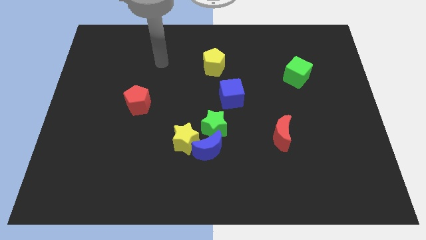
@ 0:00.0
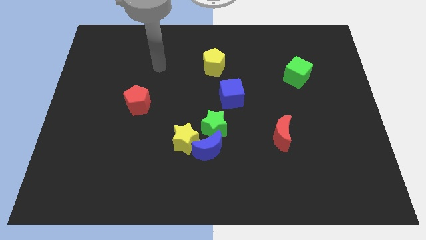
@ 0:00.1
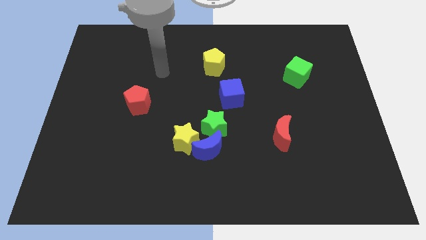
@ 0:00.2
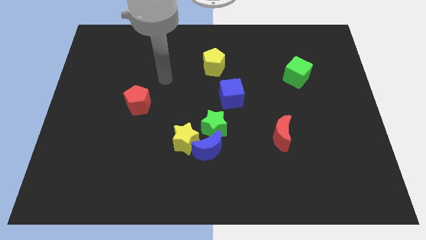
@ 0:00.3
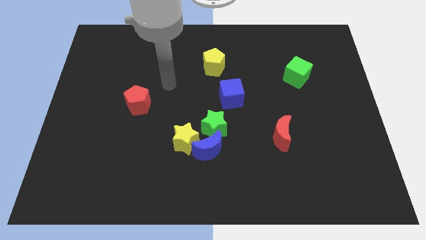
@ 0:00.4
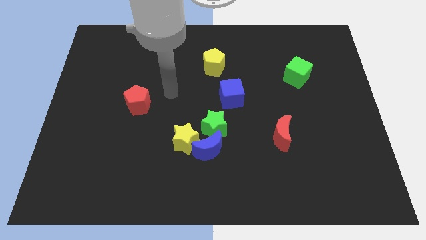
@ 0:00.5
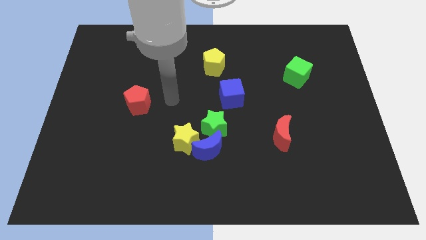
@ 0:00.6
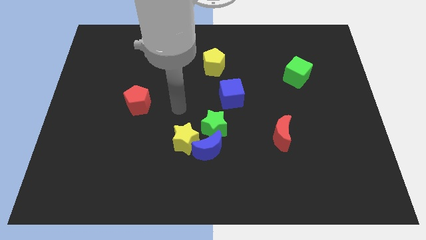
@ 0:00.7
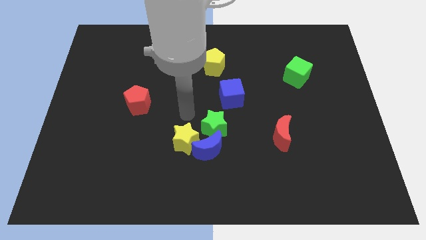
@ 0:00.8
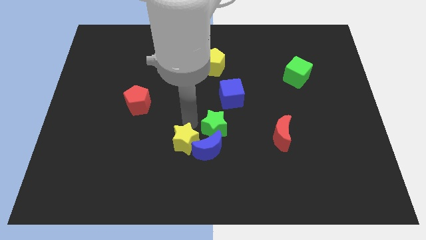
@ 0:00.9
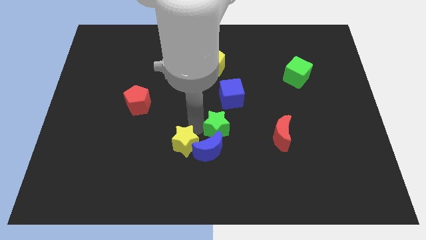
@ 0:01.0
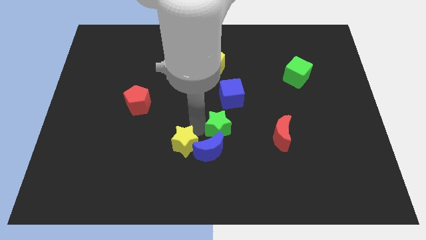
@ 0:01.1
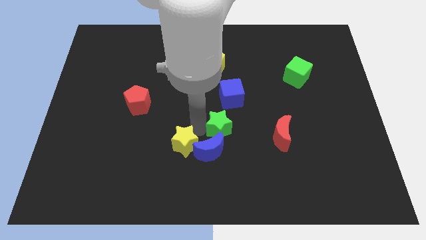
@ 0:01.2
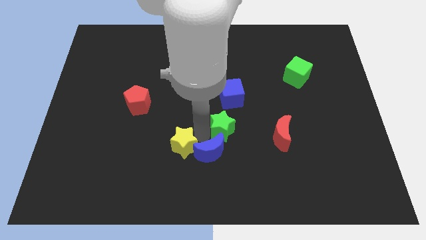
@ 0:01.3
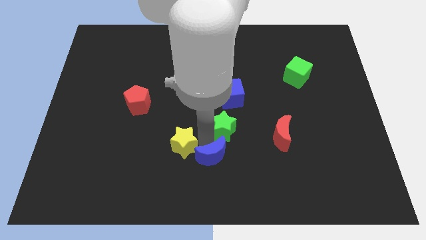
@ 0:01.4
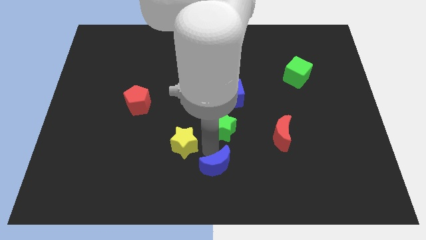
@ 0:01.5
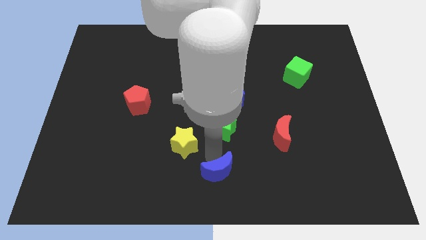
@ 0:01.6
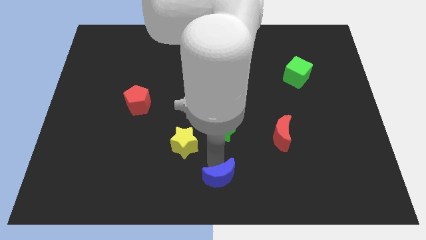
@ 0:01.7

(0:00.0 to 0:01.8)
move the blue moon away from the yellow star and green star

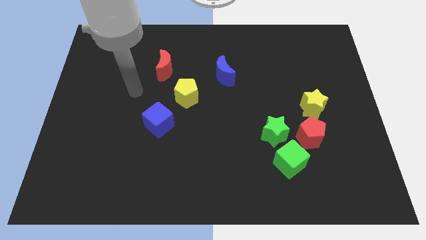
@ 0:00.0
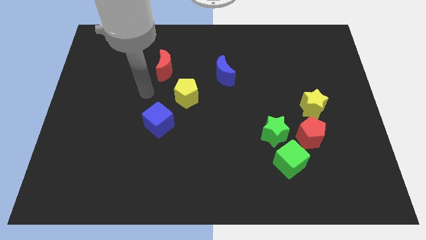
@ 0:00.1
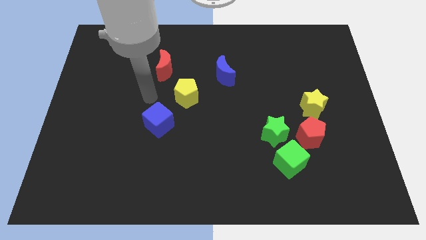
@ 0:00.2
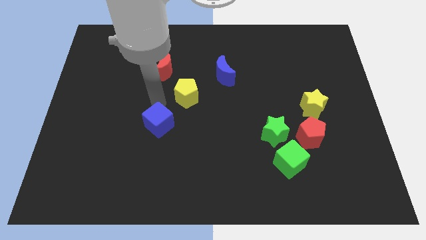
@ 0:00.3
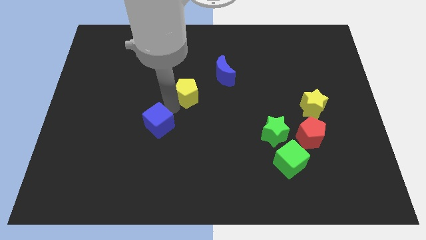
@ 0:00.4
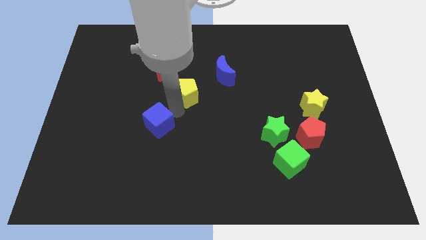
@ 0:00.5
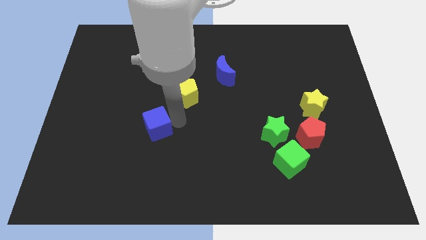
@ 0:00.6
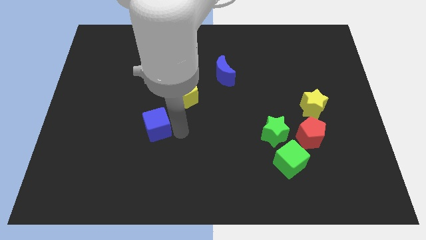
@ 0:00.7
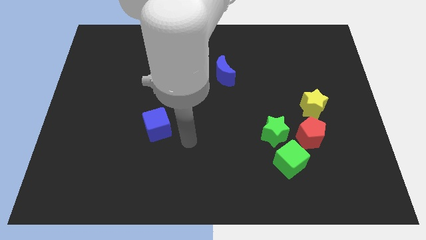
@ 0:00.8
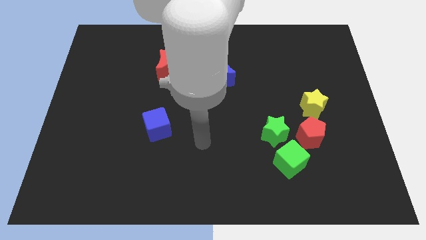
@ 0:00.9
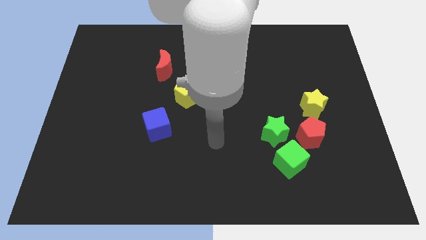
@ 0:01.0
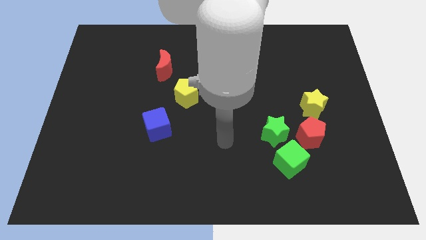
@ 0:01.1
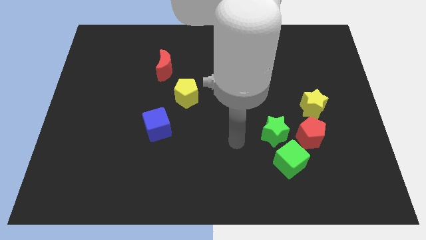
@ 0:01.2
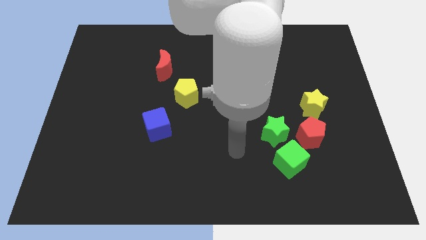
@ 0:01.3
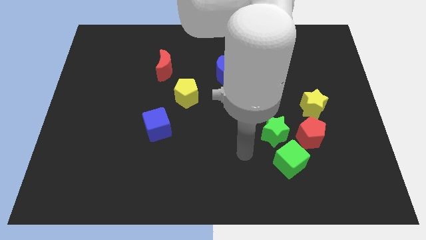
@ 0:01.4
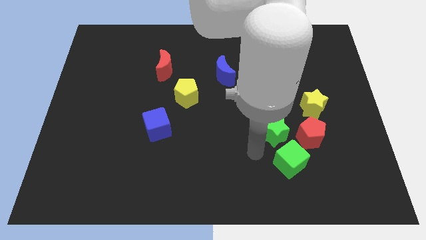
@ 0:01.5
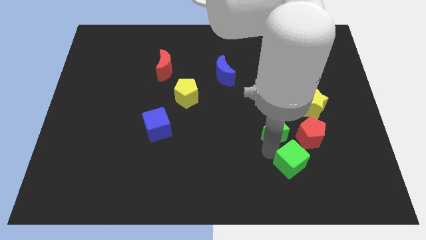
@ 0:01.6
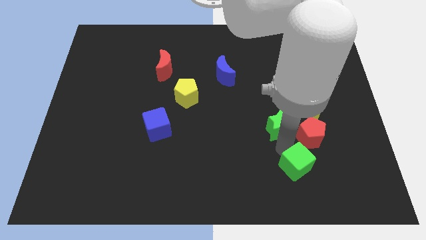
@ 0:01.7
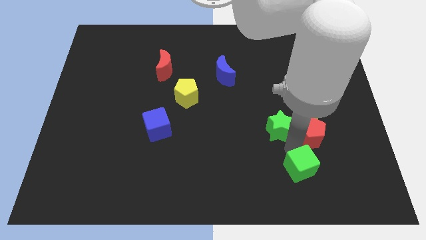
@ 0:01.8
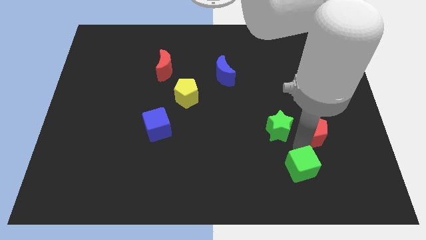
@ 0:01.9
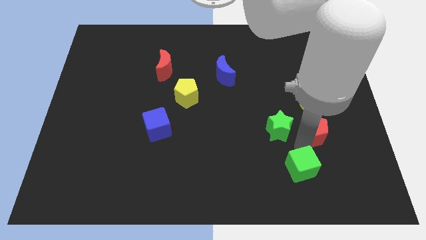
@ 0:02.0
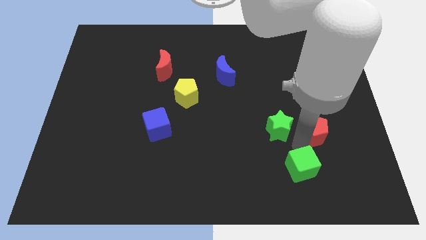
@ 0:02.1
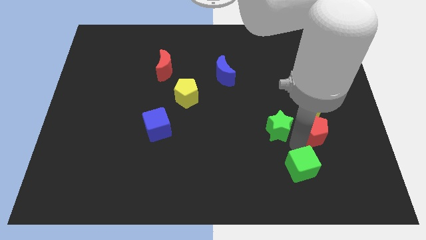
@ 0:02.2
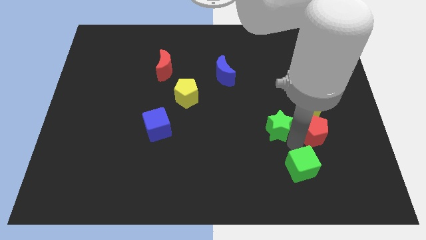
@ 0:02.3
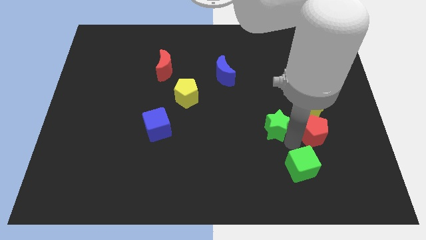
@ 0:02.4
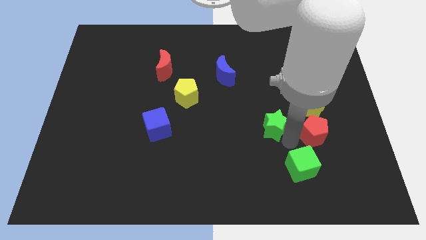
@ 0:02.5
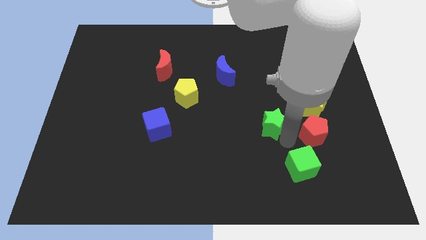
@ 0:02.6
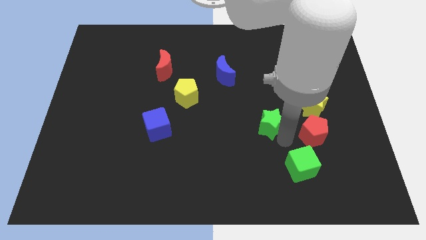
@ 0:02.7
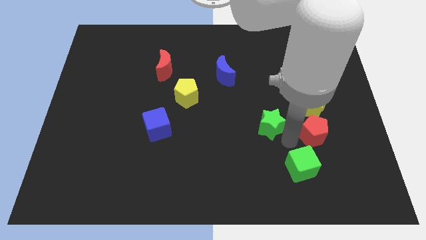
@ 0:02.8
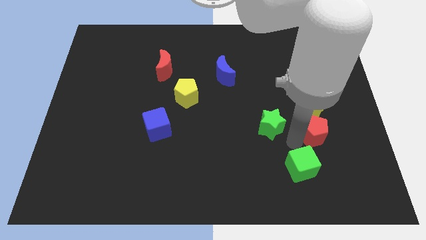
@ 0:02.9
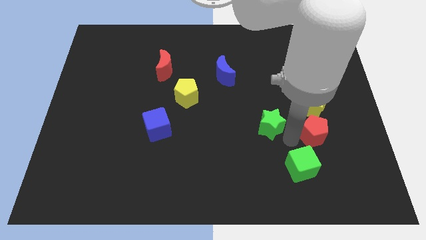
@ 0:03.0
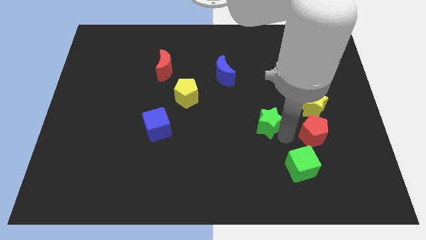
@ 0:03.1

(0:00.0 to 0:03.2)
separate the green star from the green cube and red pentagon

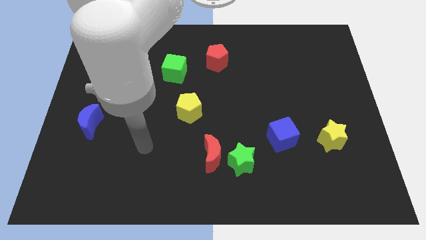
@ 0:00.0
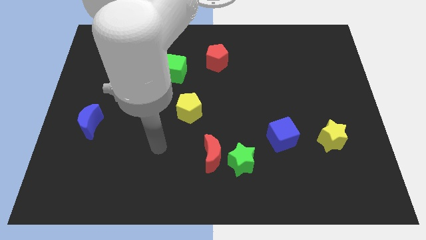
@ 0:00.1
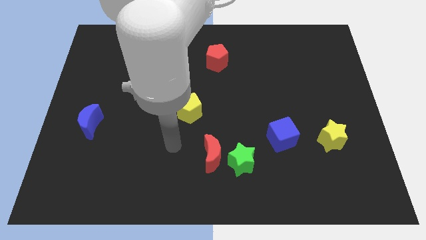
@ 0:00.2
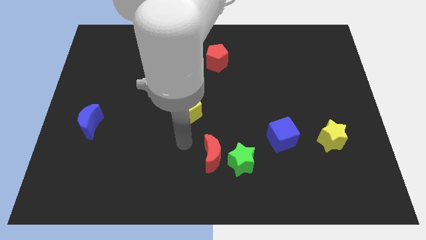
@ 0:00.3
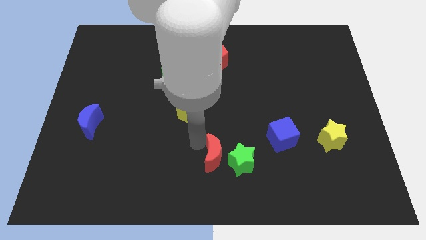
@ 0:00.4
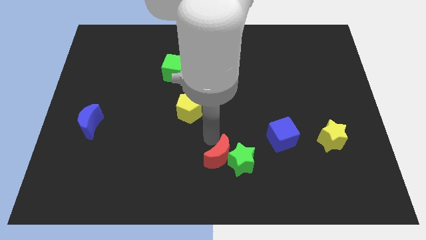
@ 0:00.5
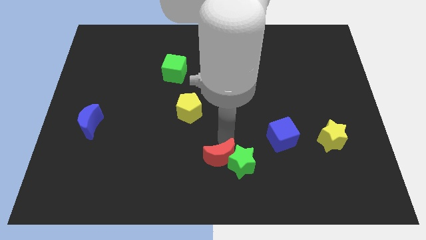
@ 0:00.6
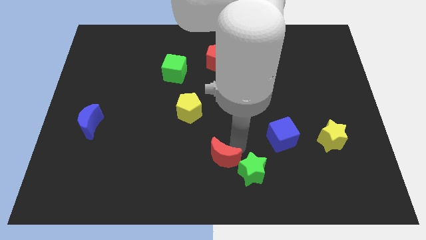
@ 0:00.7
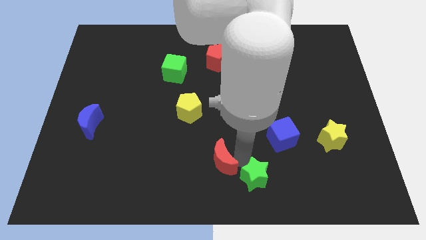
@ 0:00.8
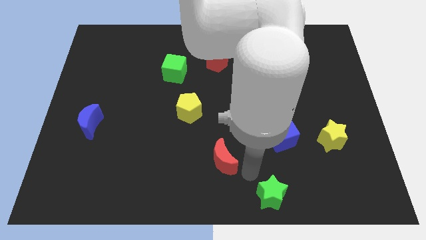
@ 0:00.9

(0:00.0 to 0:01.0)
separate the red moon from the green star

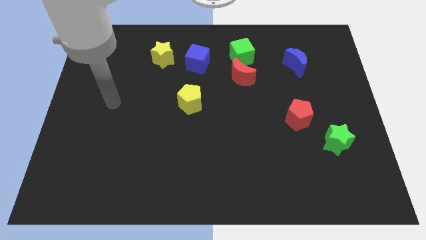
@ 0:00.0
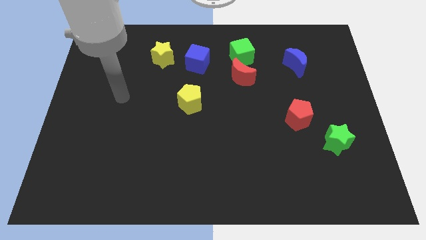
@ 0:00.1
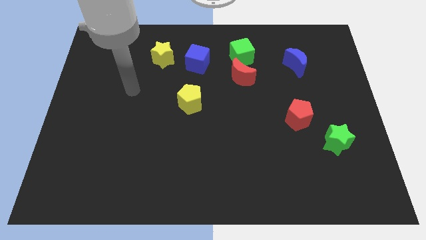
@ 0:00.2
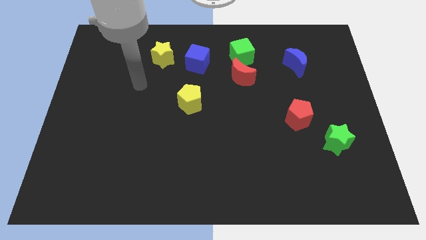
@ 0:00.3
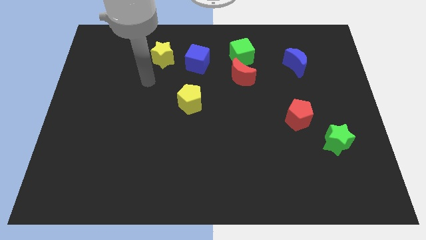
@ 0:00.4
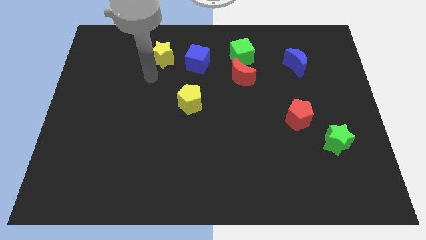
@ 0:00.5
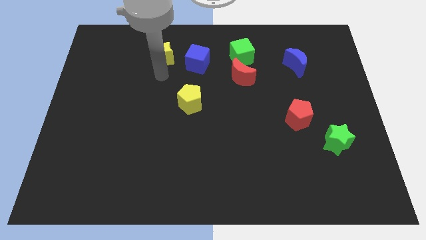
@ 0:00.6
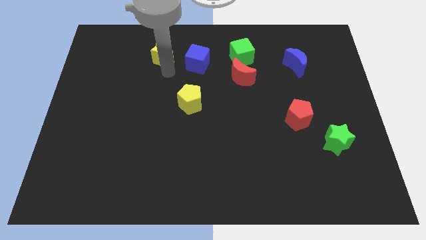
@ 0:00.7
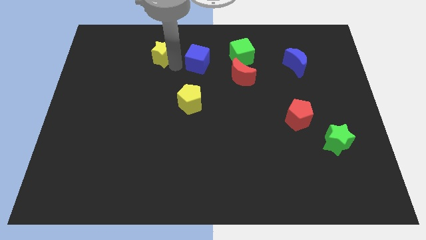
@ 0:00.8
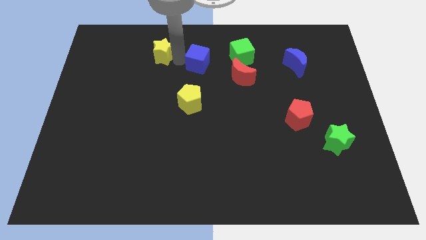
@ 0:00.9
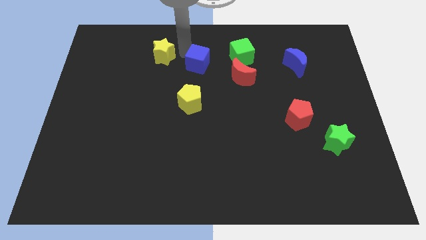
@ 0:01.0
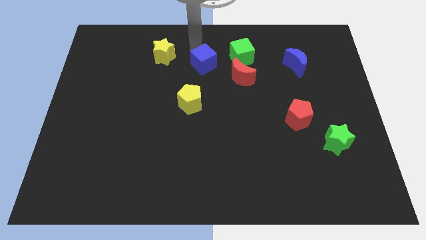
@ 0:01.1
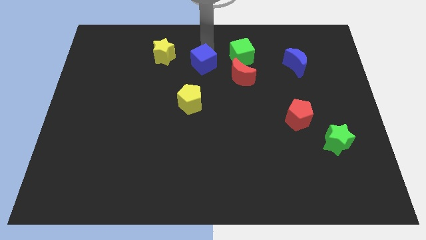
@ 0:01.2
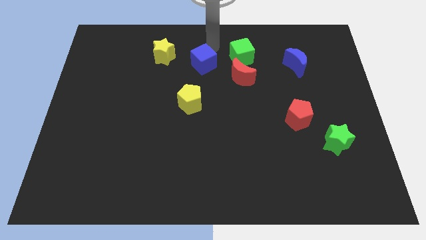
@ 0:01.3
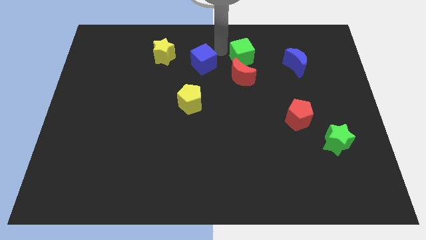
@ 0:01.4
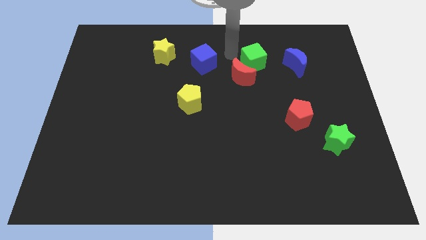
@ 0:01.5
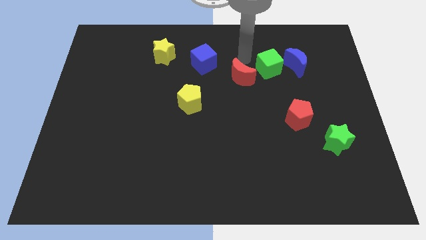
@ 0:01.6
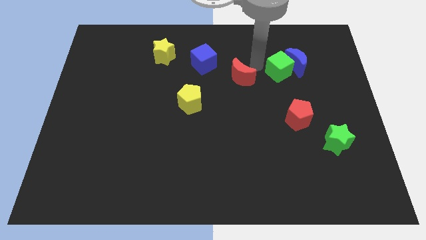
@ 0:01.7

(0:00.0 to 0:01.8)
separate the red moon from the green cube

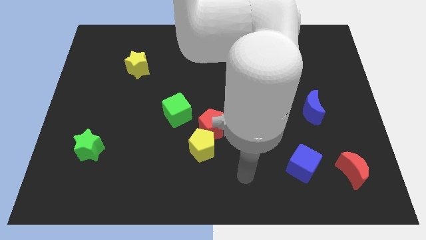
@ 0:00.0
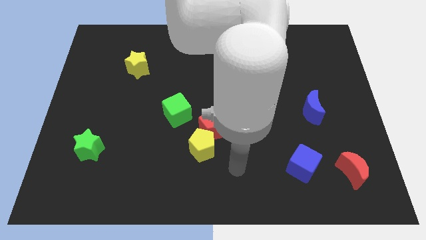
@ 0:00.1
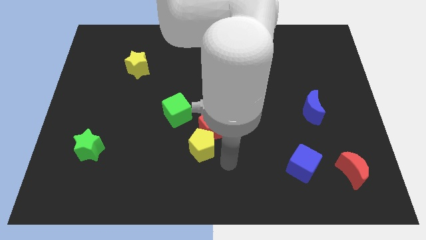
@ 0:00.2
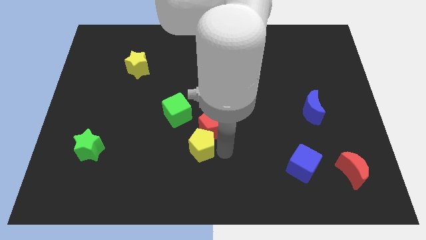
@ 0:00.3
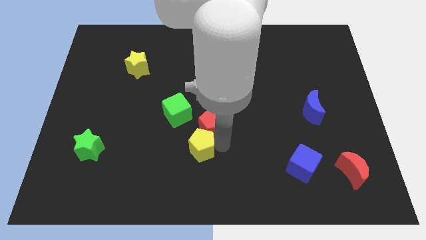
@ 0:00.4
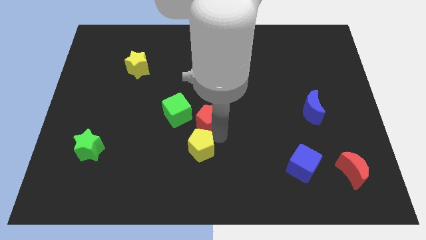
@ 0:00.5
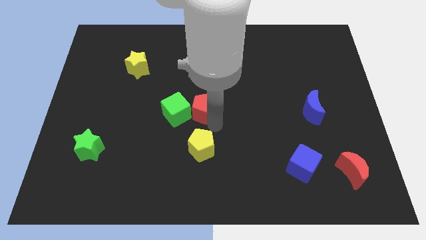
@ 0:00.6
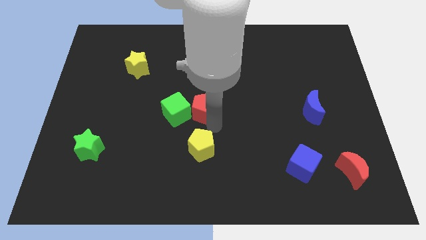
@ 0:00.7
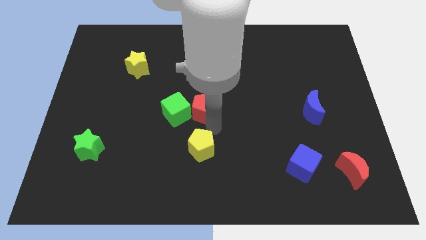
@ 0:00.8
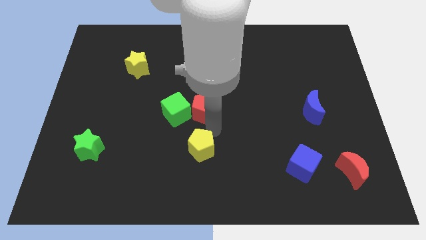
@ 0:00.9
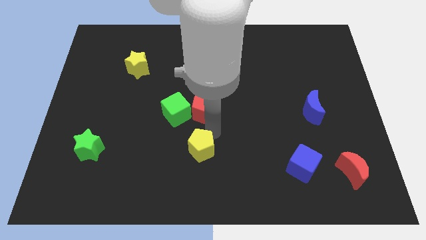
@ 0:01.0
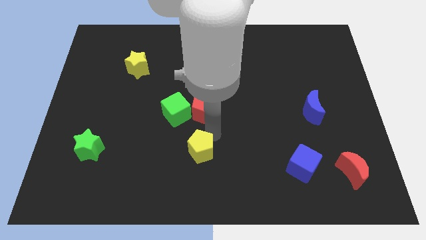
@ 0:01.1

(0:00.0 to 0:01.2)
move the yellow pentagon away from the red pentagon

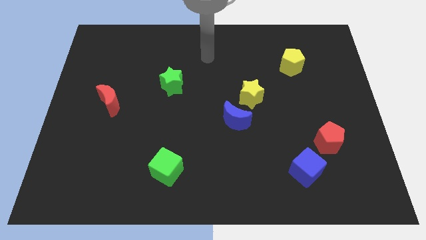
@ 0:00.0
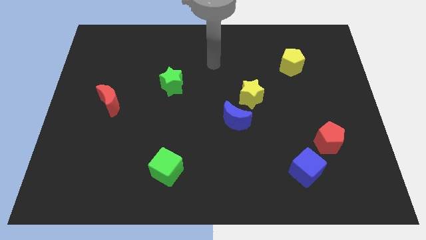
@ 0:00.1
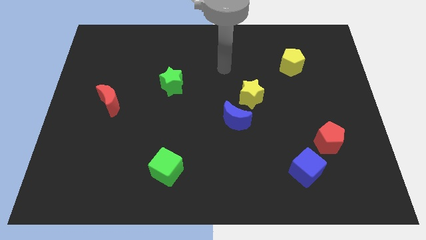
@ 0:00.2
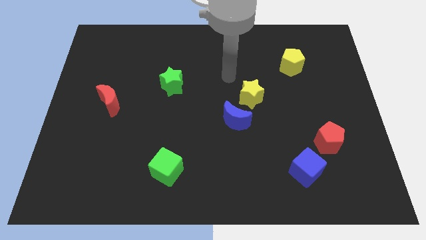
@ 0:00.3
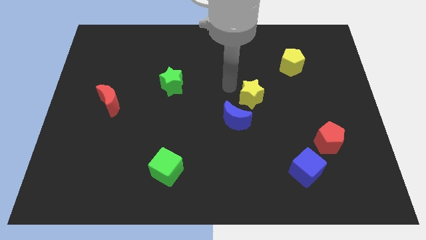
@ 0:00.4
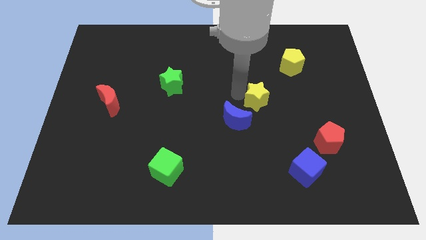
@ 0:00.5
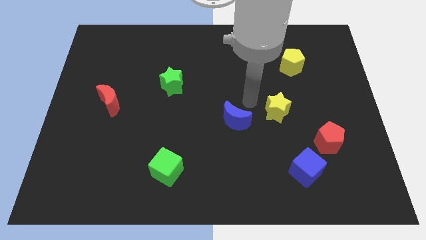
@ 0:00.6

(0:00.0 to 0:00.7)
separate the blue moon from the yellow star
